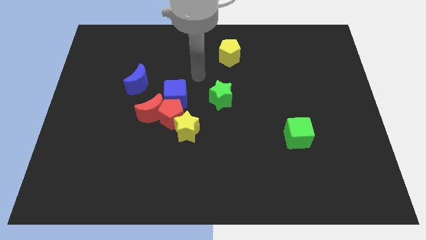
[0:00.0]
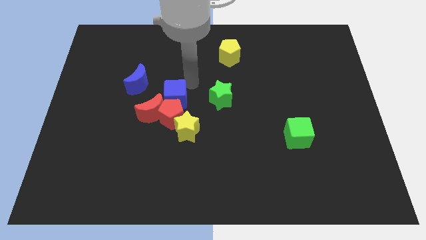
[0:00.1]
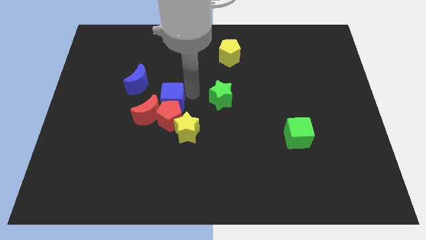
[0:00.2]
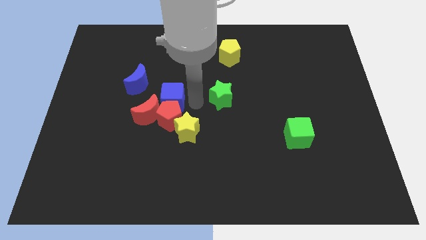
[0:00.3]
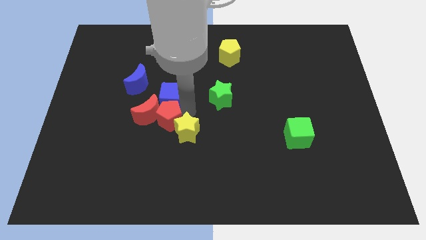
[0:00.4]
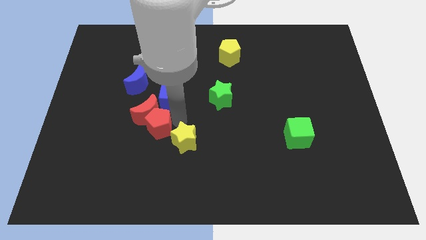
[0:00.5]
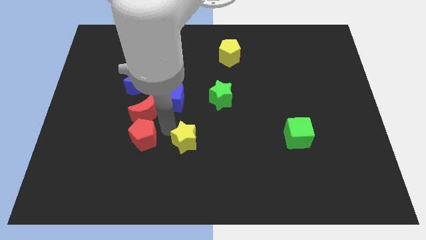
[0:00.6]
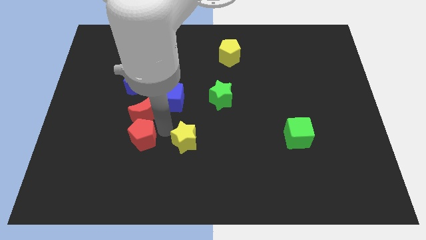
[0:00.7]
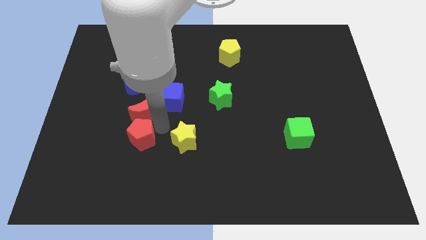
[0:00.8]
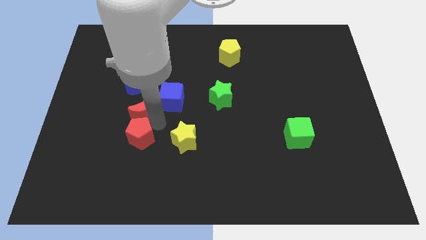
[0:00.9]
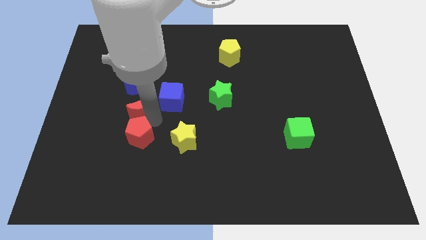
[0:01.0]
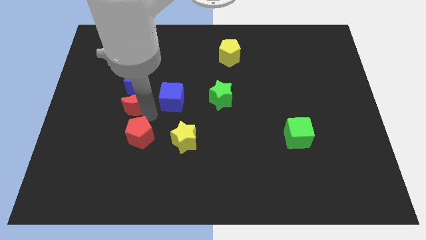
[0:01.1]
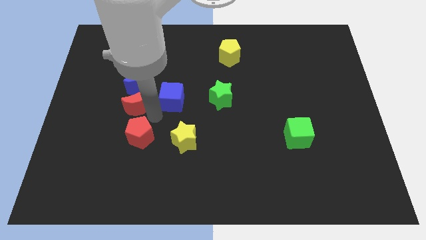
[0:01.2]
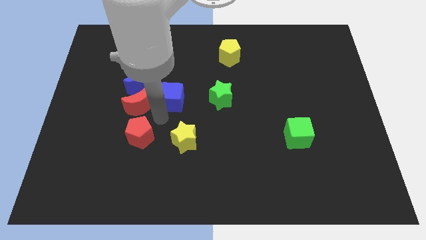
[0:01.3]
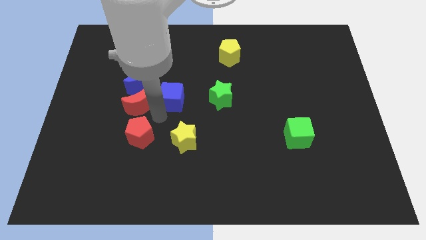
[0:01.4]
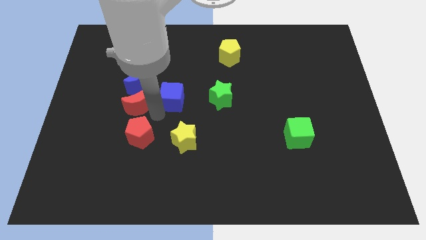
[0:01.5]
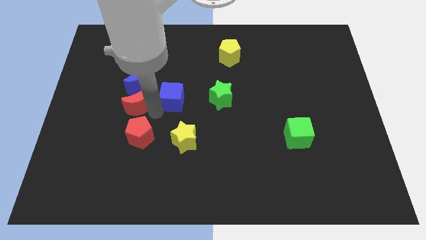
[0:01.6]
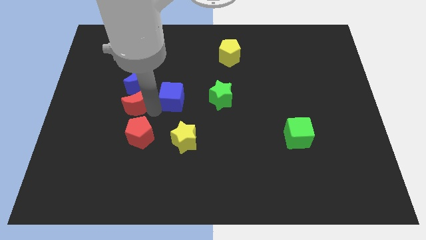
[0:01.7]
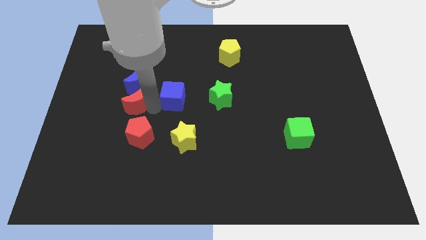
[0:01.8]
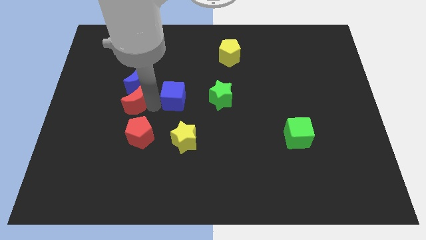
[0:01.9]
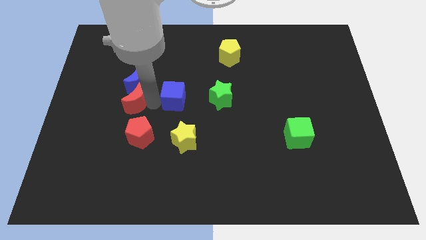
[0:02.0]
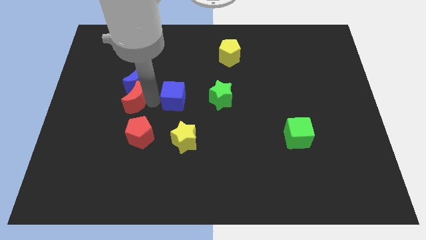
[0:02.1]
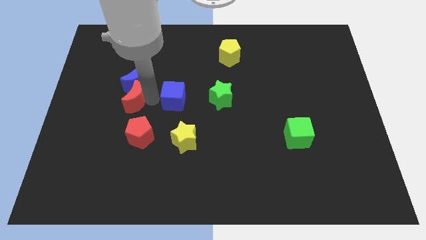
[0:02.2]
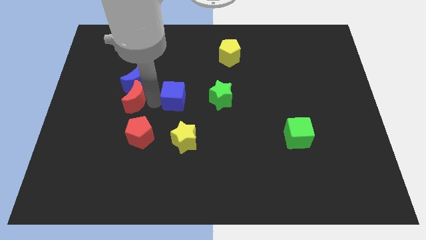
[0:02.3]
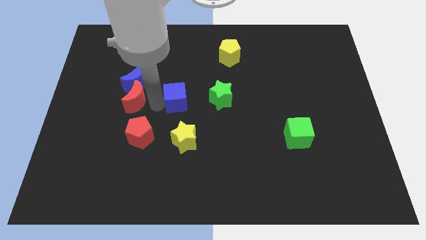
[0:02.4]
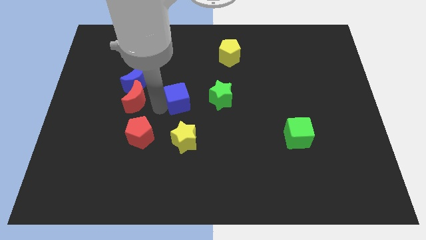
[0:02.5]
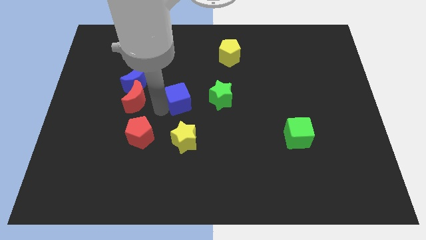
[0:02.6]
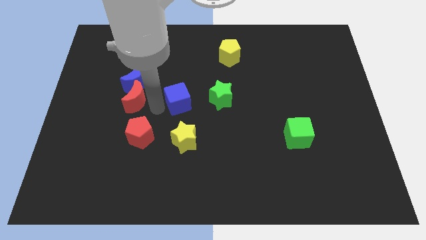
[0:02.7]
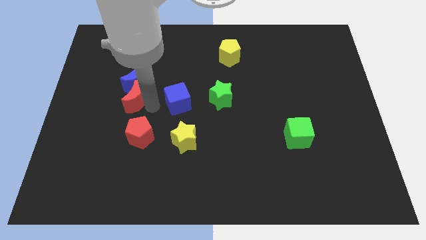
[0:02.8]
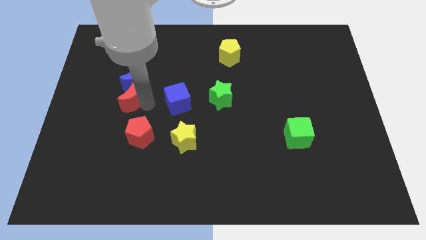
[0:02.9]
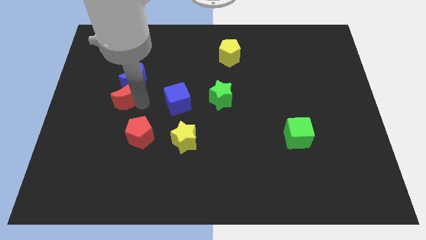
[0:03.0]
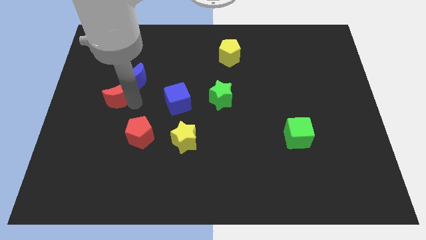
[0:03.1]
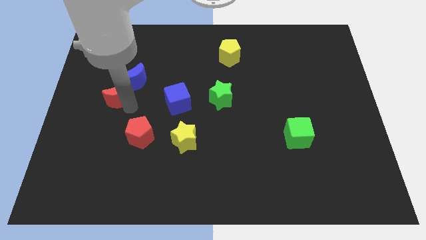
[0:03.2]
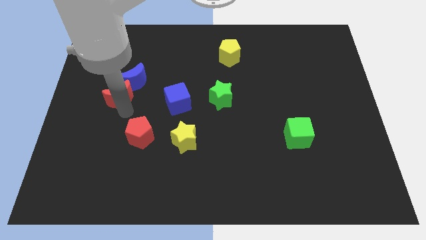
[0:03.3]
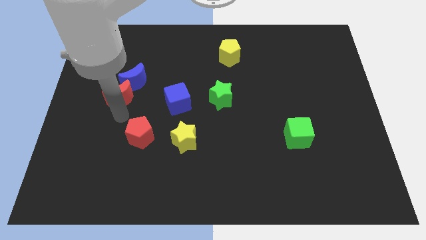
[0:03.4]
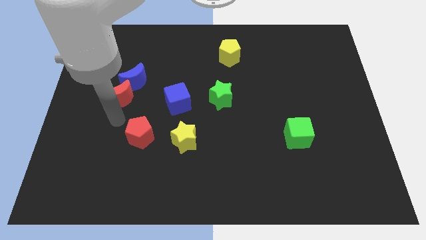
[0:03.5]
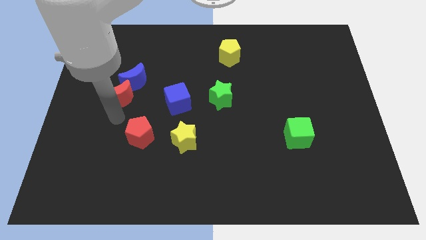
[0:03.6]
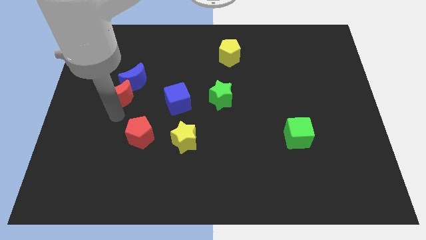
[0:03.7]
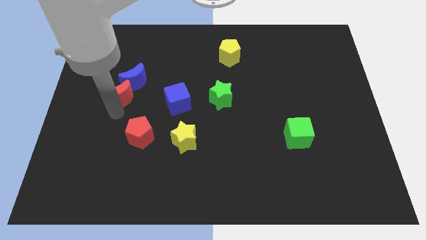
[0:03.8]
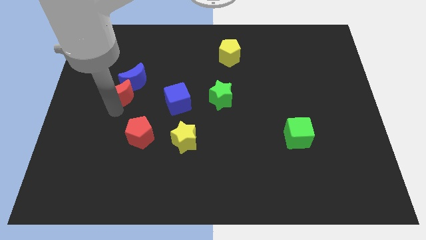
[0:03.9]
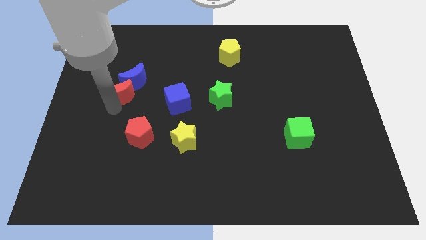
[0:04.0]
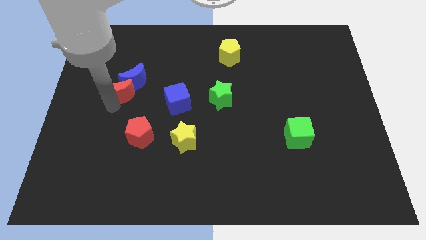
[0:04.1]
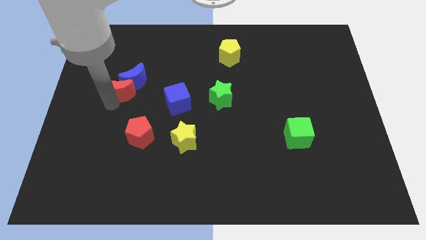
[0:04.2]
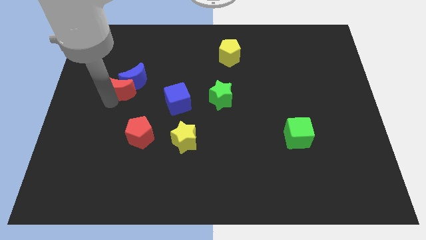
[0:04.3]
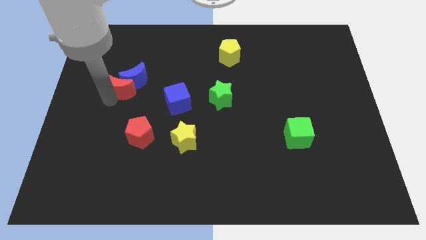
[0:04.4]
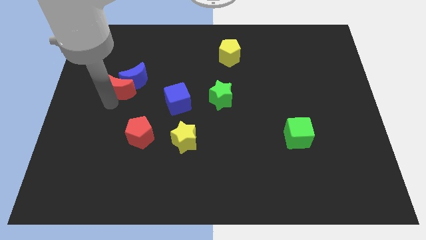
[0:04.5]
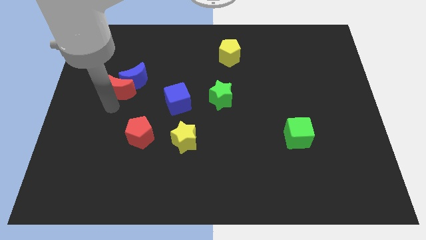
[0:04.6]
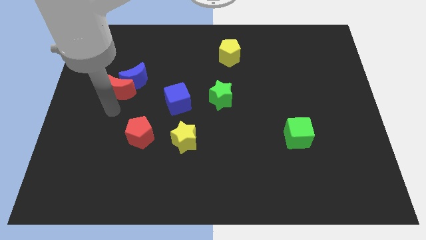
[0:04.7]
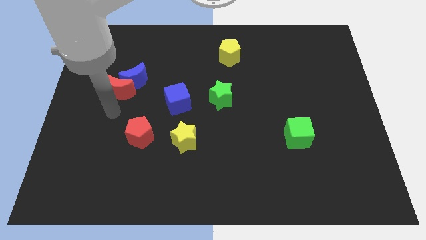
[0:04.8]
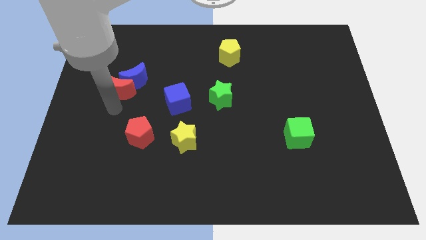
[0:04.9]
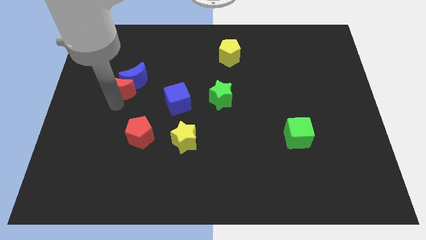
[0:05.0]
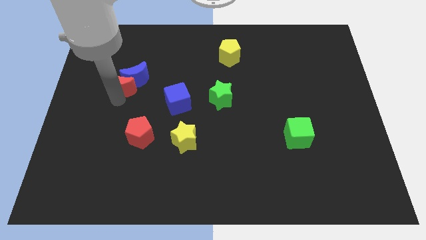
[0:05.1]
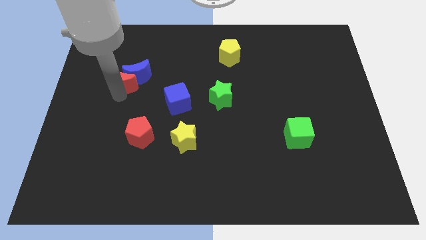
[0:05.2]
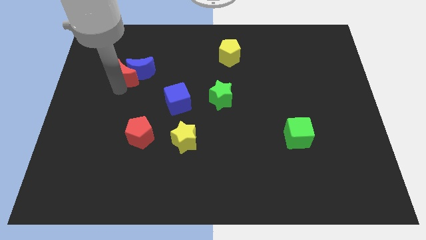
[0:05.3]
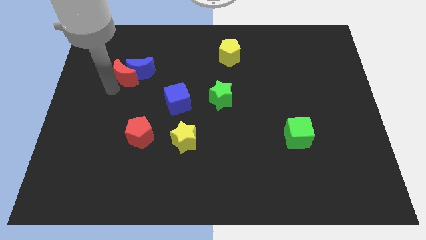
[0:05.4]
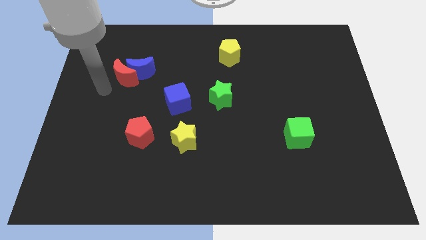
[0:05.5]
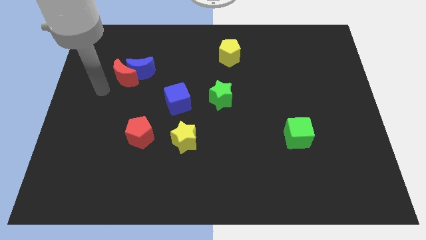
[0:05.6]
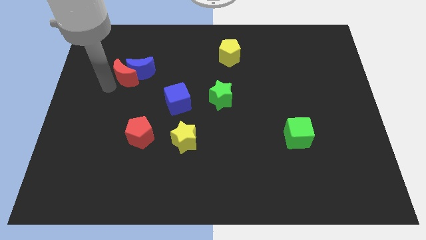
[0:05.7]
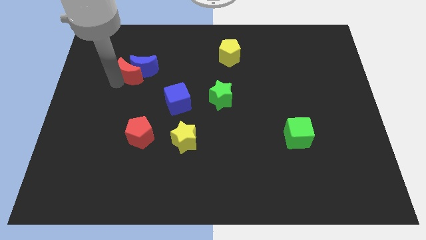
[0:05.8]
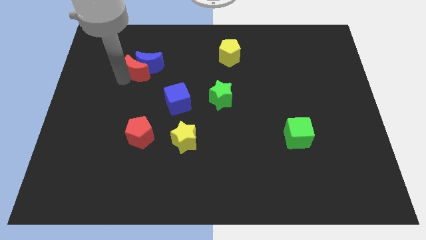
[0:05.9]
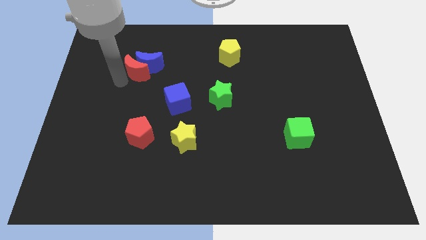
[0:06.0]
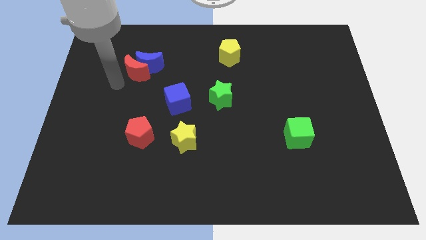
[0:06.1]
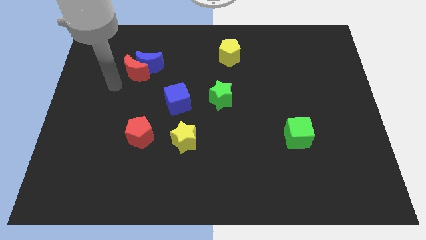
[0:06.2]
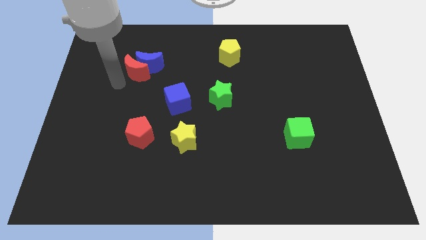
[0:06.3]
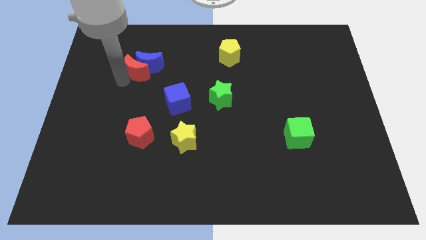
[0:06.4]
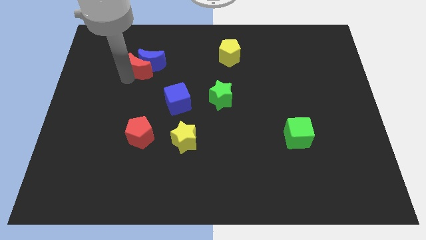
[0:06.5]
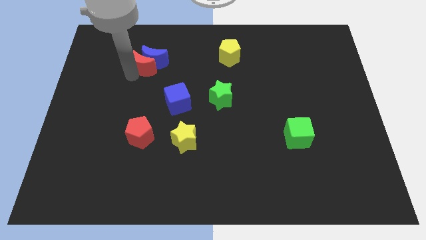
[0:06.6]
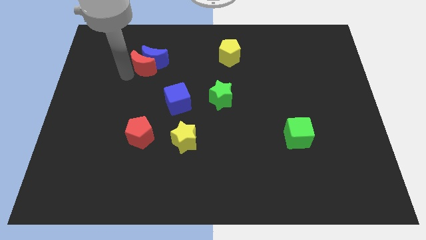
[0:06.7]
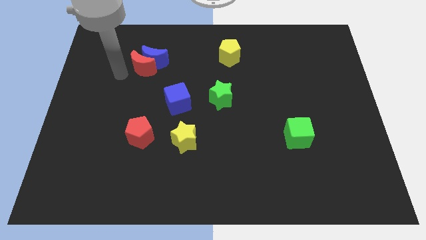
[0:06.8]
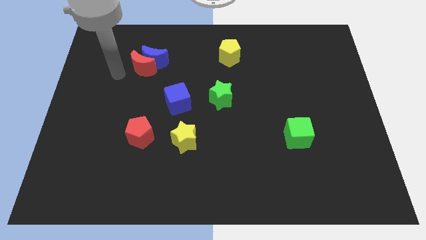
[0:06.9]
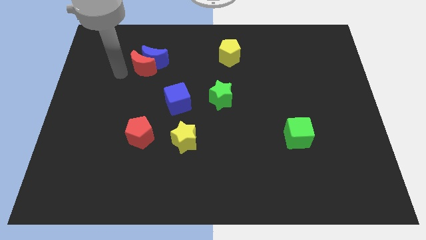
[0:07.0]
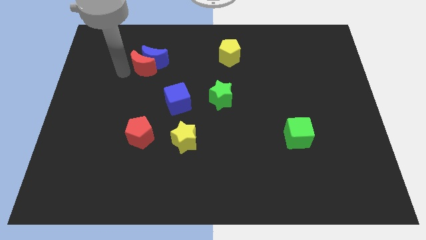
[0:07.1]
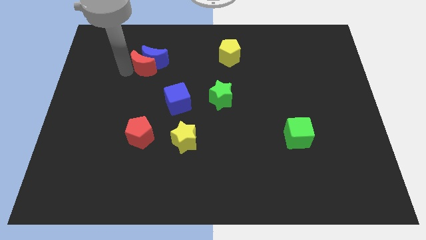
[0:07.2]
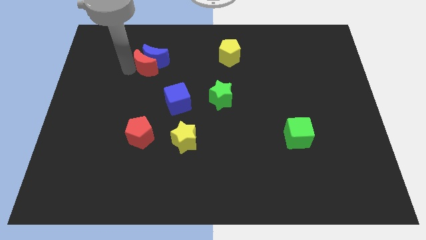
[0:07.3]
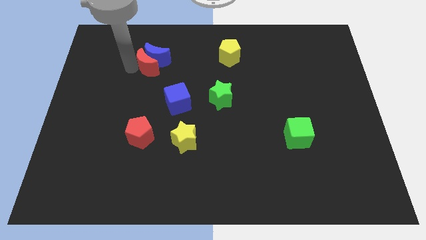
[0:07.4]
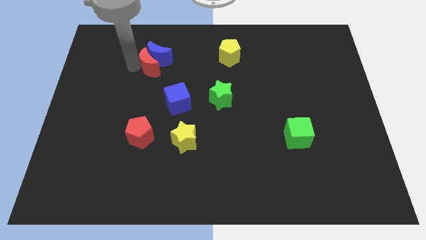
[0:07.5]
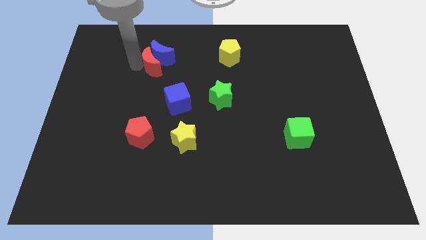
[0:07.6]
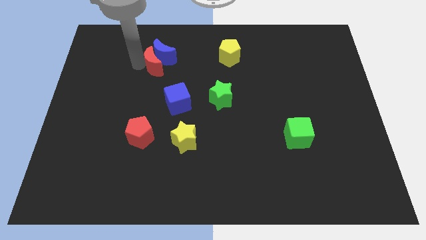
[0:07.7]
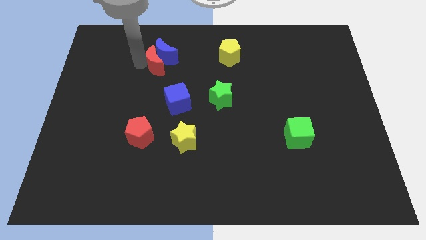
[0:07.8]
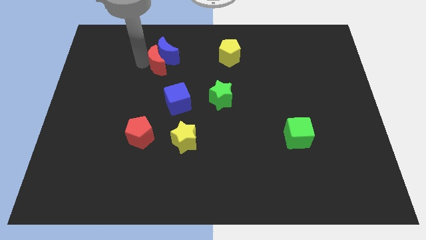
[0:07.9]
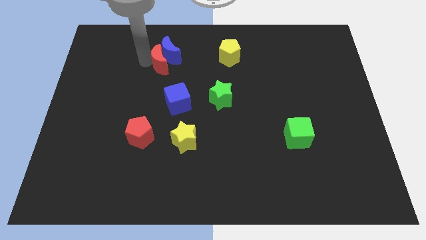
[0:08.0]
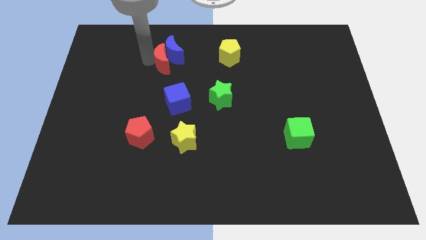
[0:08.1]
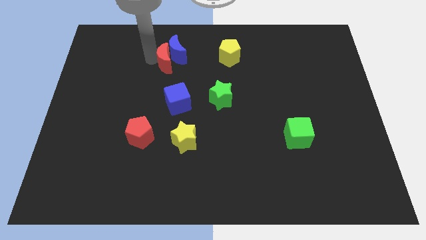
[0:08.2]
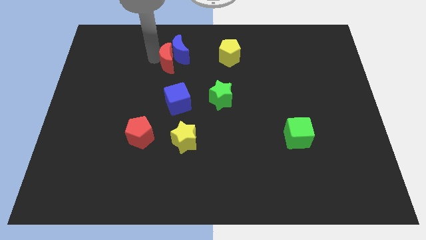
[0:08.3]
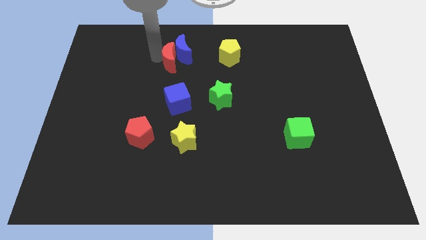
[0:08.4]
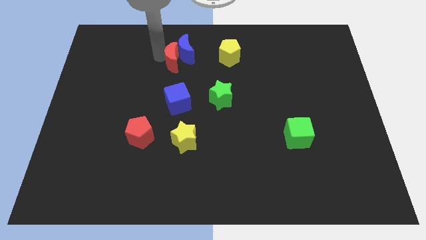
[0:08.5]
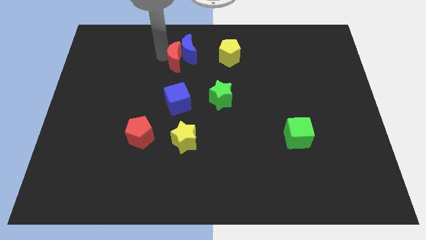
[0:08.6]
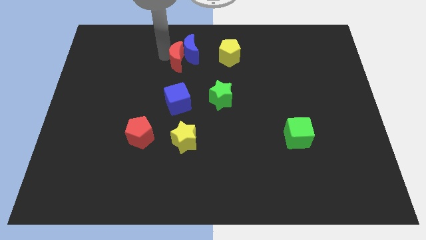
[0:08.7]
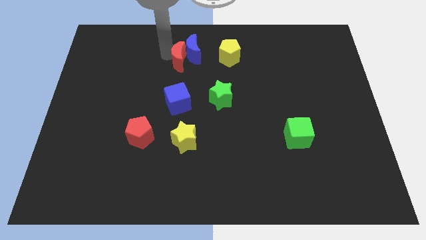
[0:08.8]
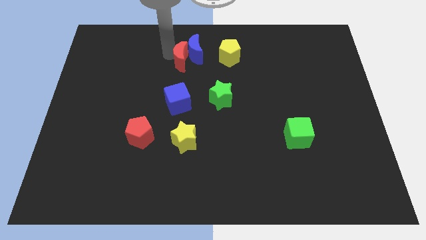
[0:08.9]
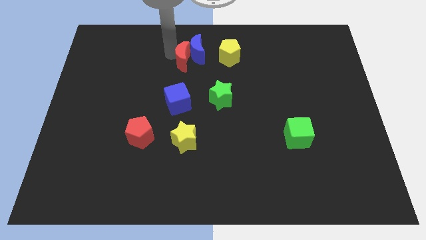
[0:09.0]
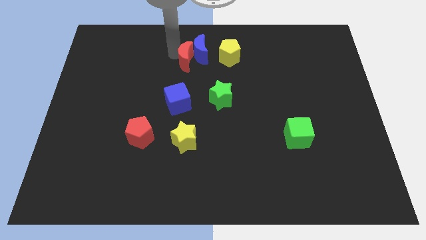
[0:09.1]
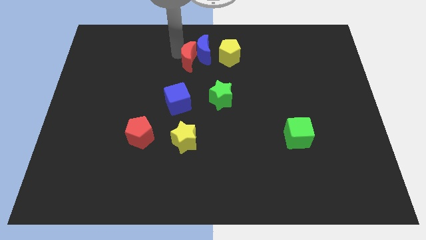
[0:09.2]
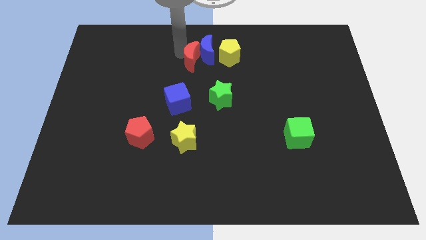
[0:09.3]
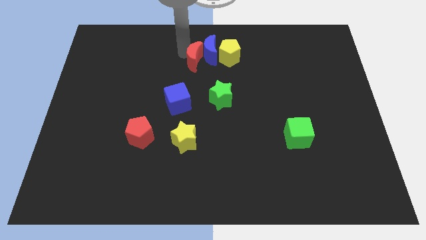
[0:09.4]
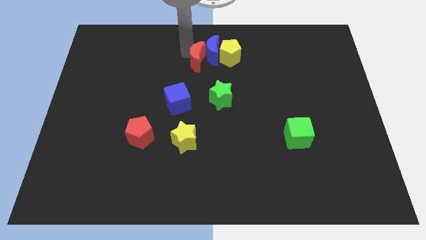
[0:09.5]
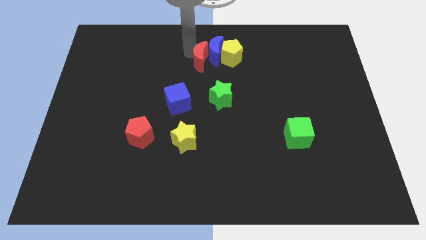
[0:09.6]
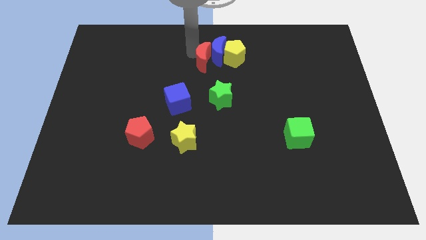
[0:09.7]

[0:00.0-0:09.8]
move the red moon to the top of the green star
